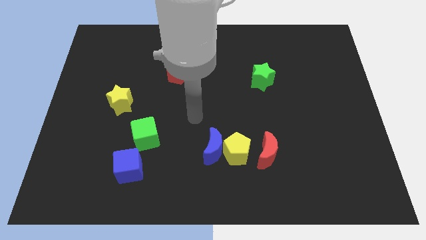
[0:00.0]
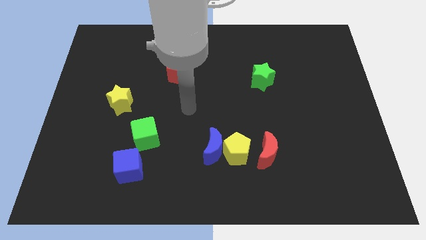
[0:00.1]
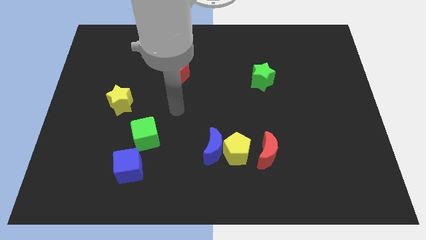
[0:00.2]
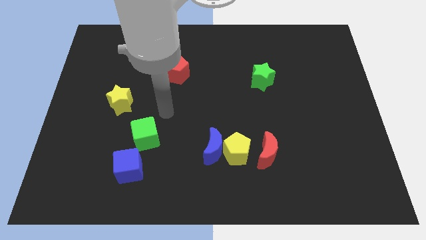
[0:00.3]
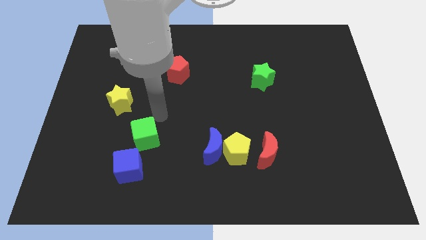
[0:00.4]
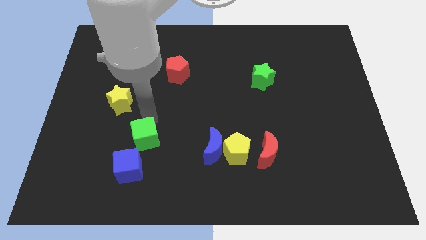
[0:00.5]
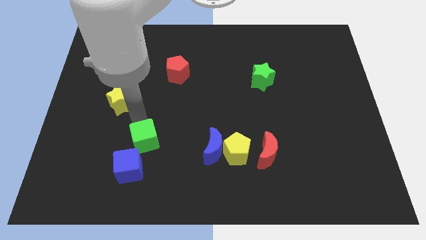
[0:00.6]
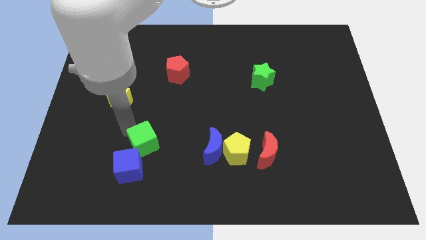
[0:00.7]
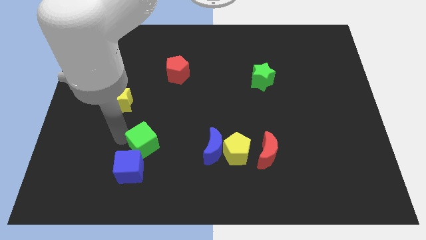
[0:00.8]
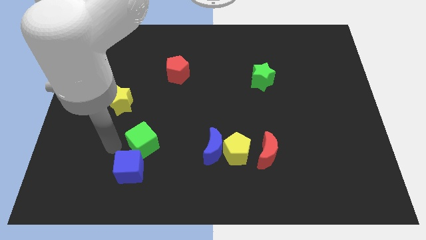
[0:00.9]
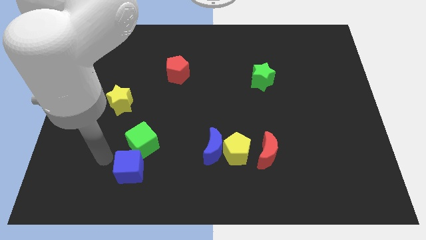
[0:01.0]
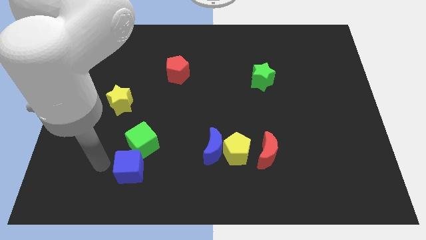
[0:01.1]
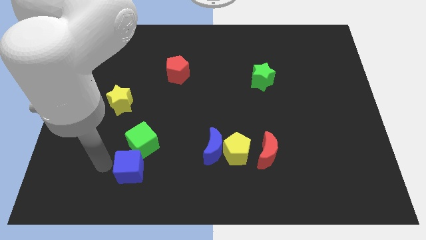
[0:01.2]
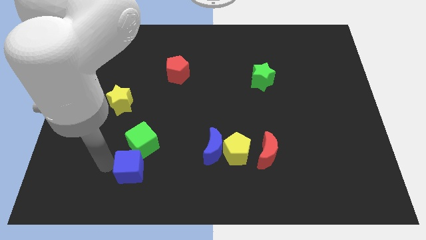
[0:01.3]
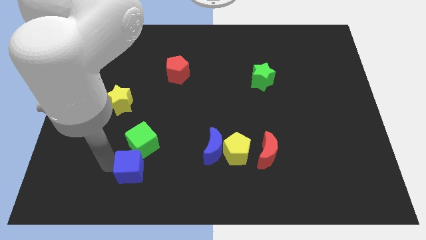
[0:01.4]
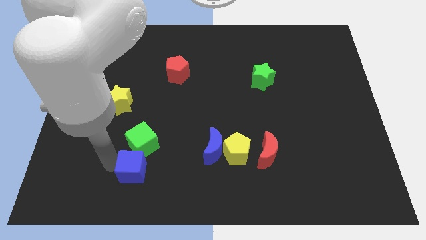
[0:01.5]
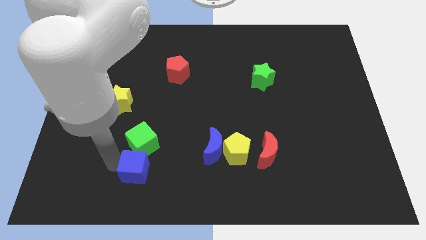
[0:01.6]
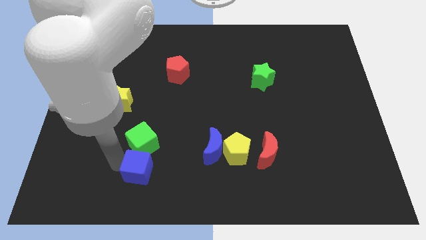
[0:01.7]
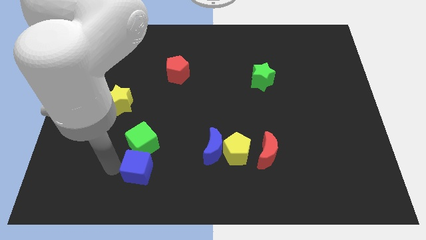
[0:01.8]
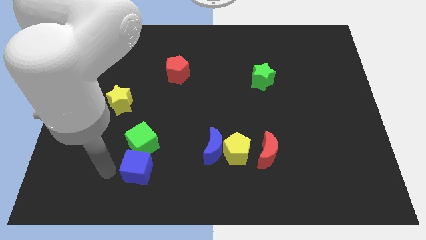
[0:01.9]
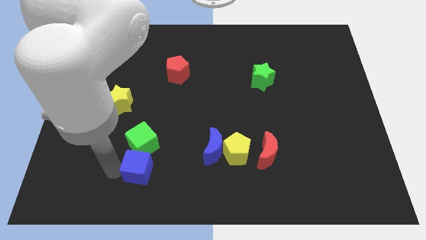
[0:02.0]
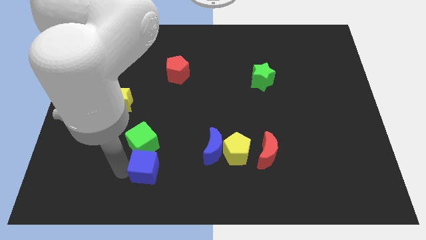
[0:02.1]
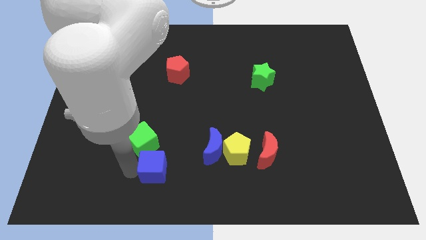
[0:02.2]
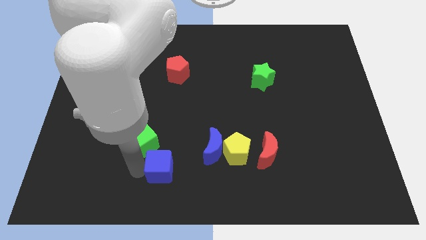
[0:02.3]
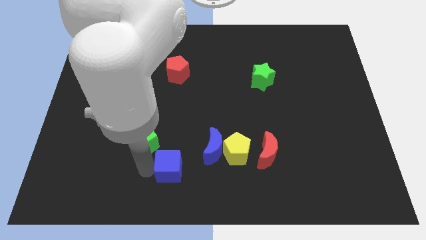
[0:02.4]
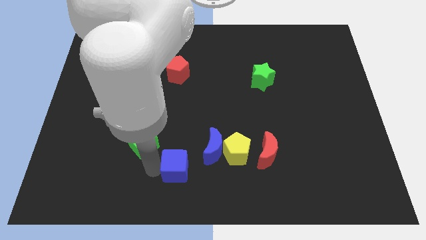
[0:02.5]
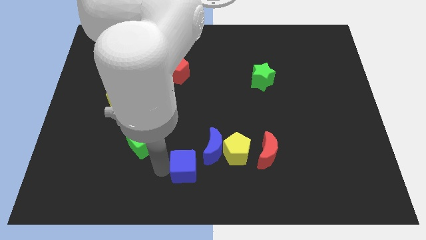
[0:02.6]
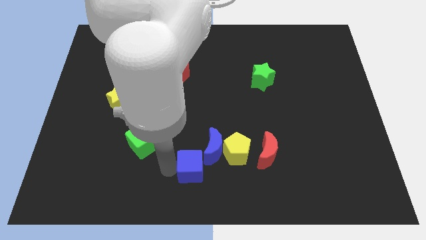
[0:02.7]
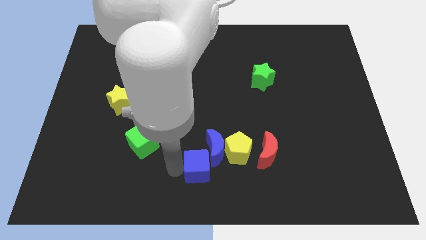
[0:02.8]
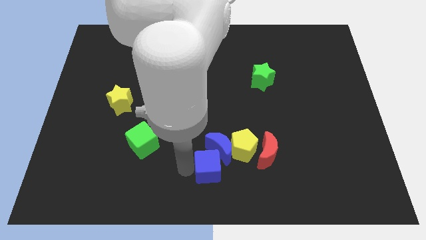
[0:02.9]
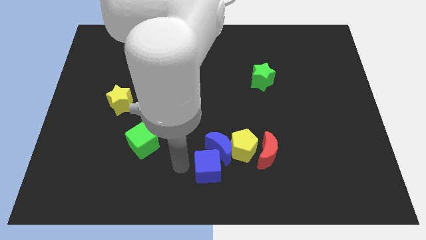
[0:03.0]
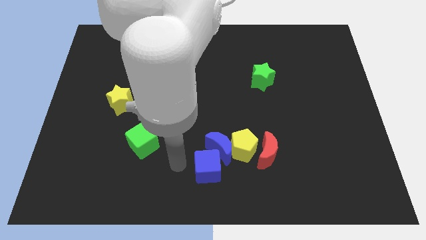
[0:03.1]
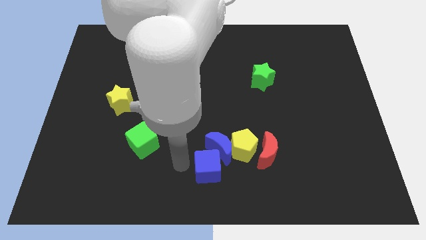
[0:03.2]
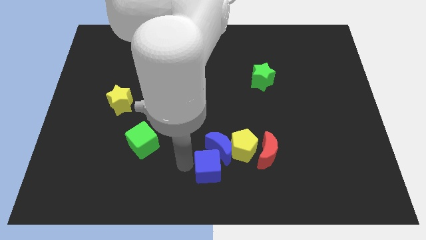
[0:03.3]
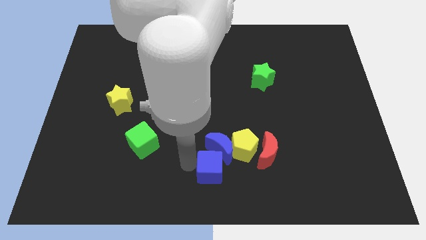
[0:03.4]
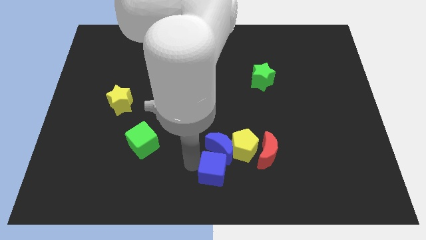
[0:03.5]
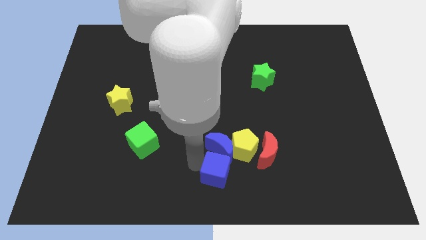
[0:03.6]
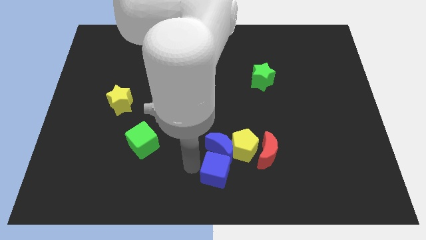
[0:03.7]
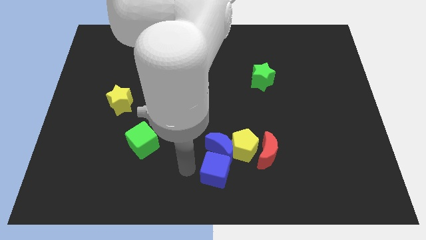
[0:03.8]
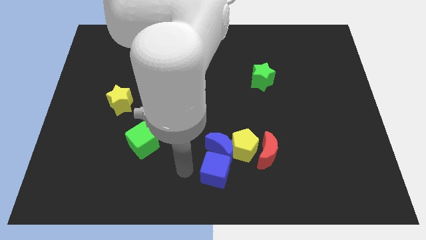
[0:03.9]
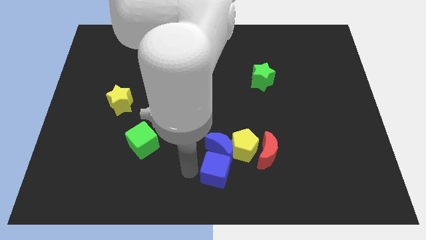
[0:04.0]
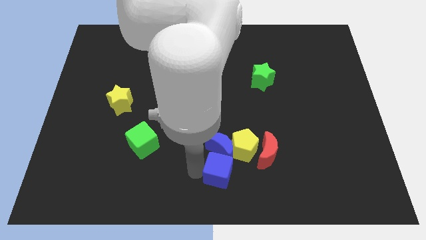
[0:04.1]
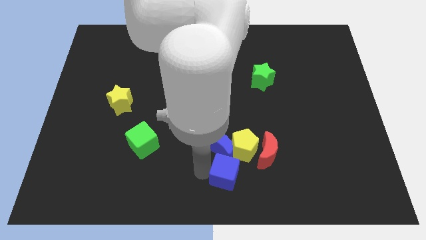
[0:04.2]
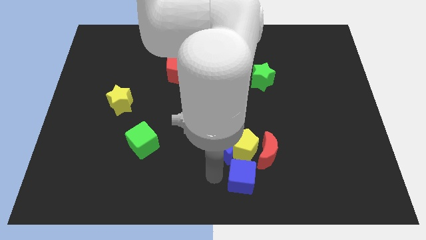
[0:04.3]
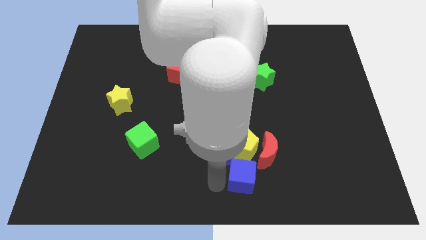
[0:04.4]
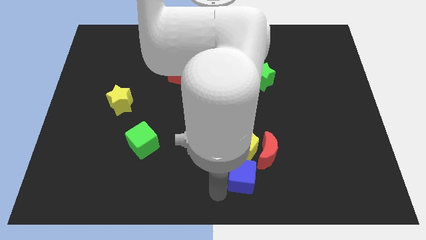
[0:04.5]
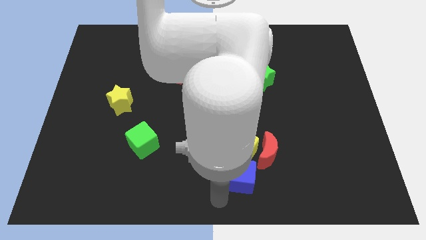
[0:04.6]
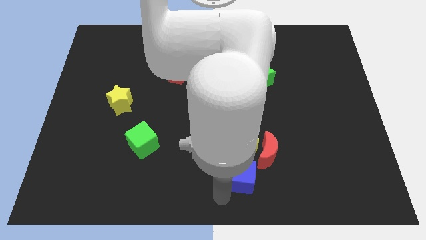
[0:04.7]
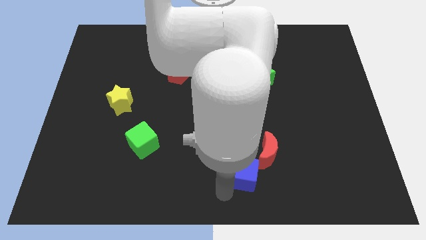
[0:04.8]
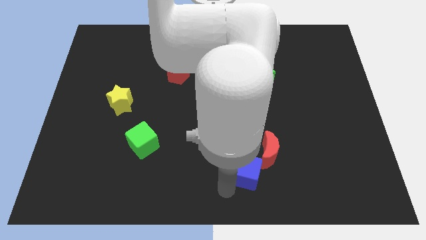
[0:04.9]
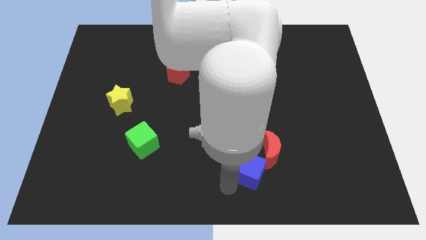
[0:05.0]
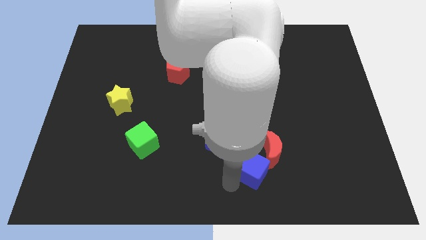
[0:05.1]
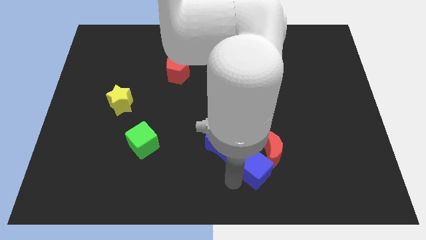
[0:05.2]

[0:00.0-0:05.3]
put the blue cube next to the red moon

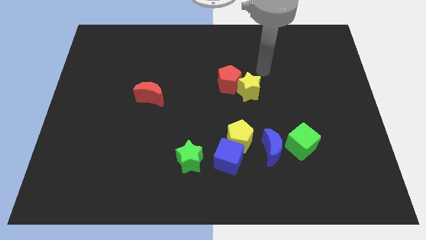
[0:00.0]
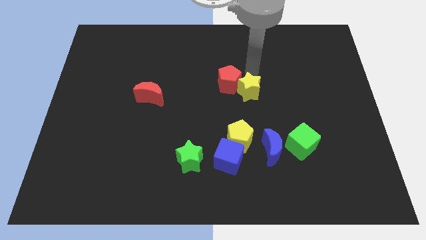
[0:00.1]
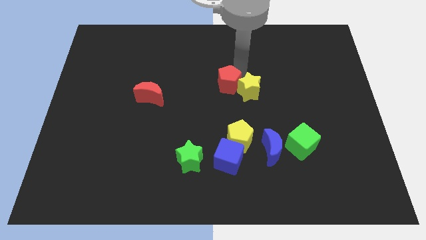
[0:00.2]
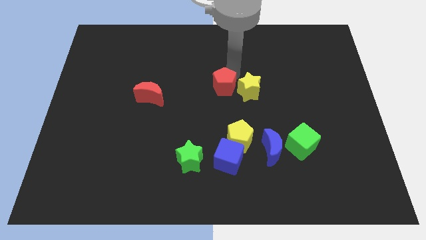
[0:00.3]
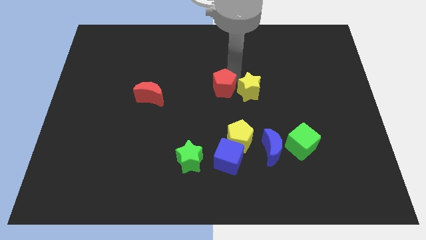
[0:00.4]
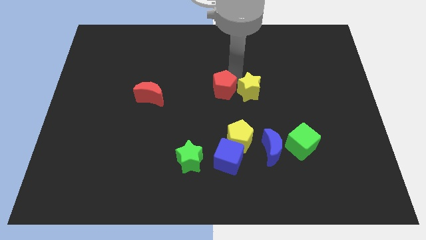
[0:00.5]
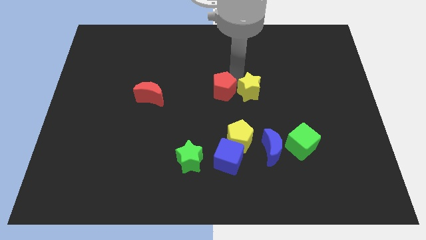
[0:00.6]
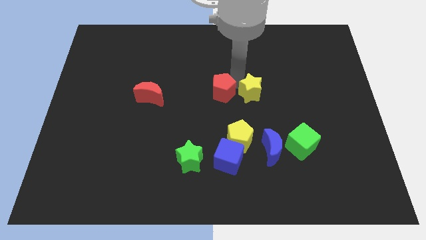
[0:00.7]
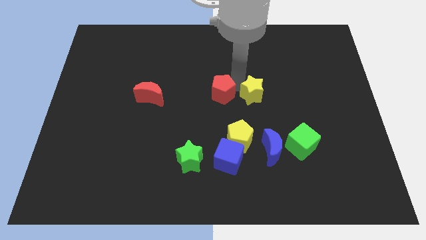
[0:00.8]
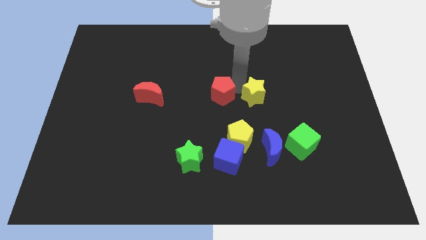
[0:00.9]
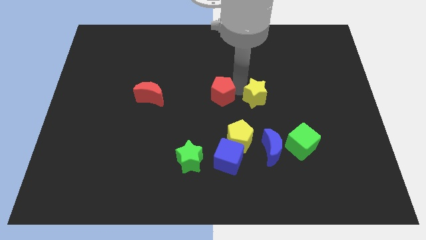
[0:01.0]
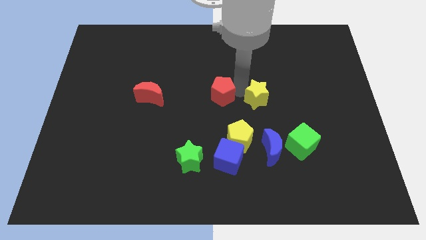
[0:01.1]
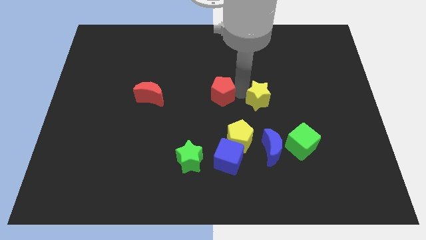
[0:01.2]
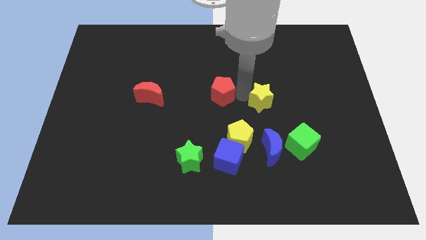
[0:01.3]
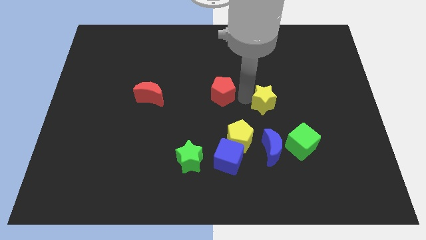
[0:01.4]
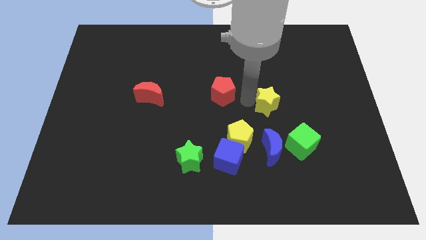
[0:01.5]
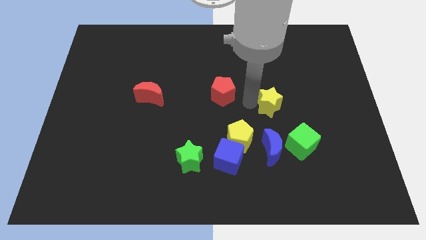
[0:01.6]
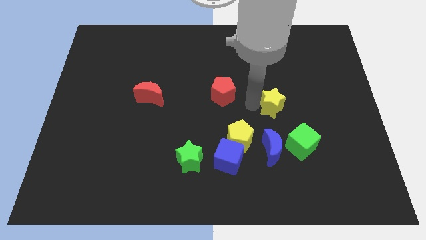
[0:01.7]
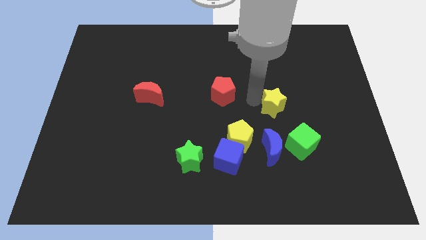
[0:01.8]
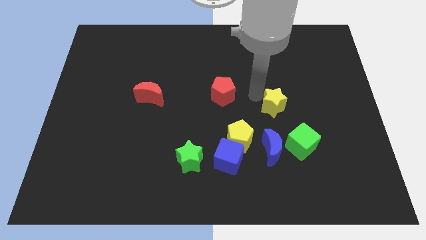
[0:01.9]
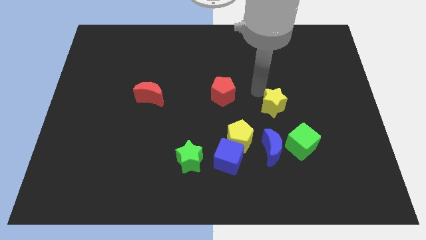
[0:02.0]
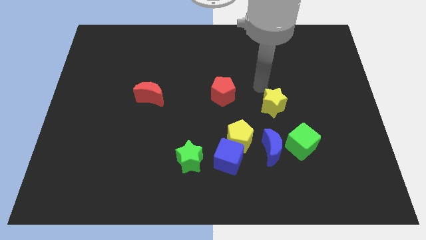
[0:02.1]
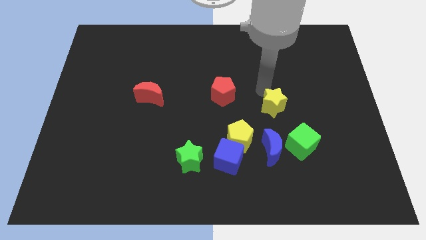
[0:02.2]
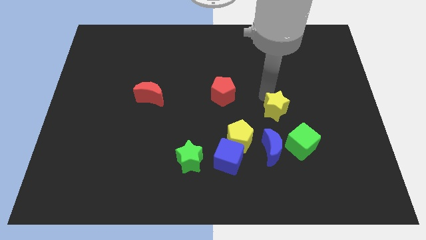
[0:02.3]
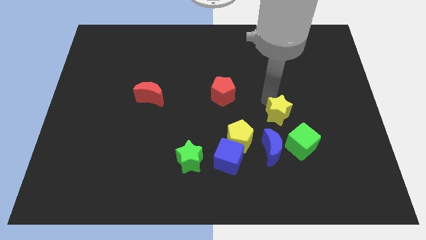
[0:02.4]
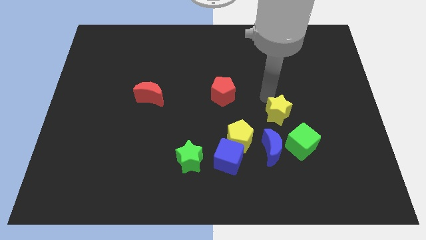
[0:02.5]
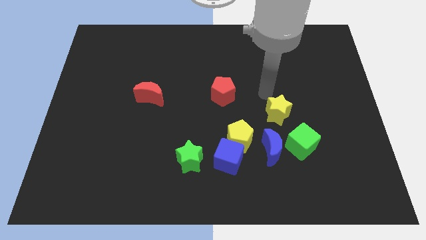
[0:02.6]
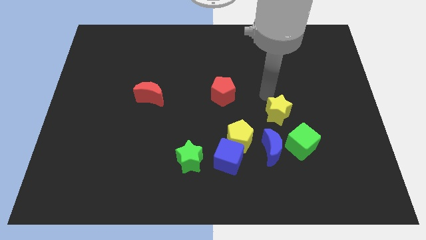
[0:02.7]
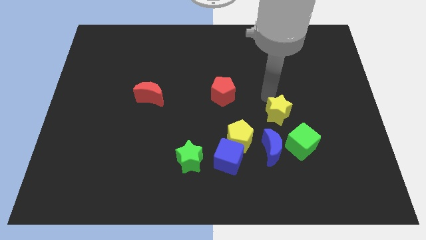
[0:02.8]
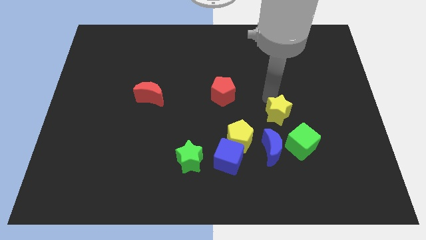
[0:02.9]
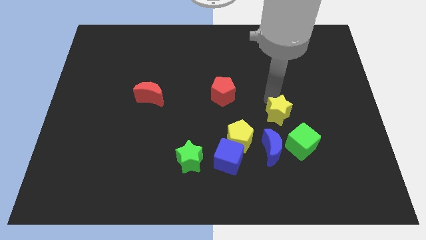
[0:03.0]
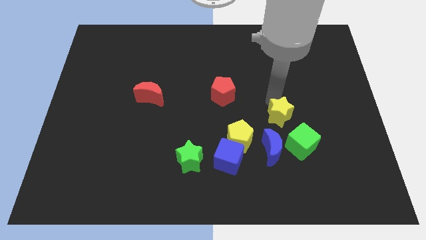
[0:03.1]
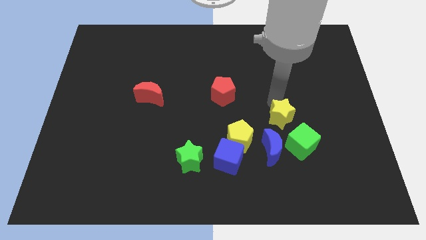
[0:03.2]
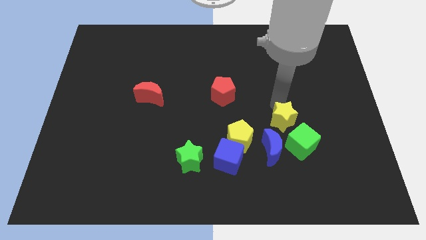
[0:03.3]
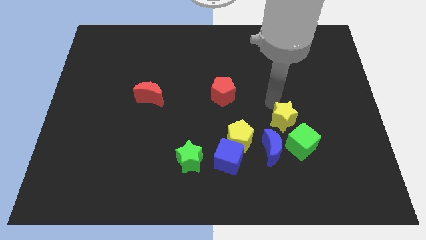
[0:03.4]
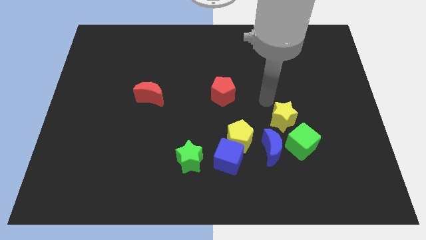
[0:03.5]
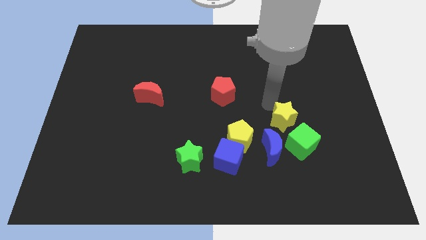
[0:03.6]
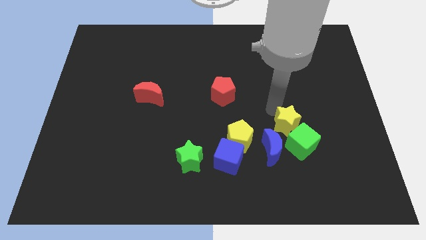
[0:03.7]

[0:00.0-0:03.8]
slide the yellow star to the green cube
